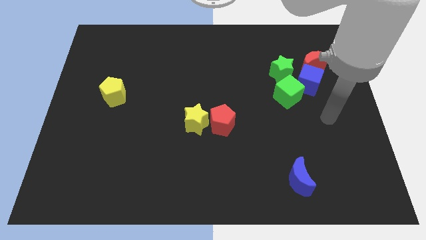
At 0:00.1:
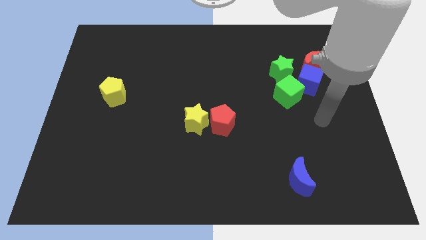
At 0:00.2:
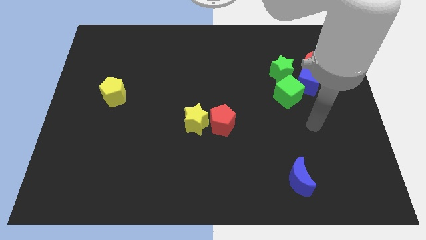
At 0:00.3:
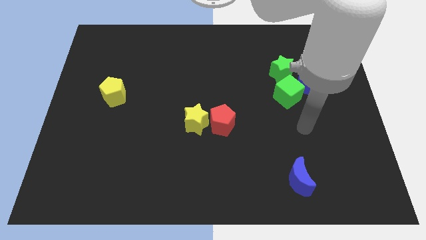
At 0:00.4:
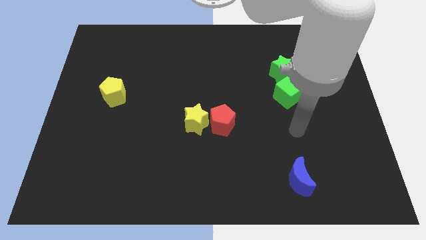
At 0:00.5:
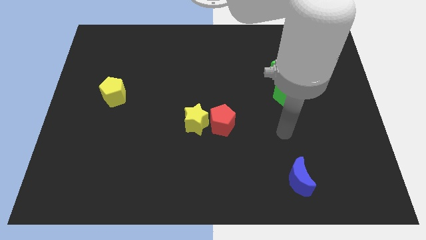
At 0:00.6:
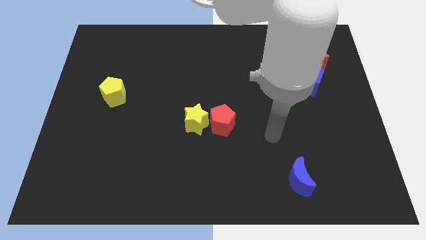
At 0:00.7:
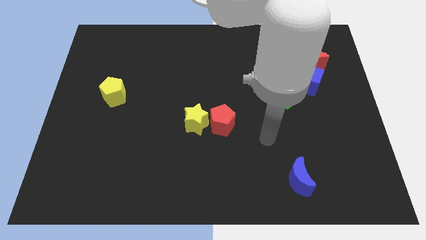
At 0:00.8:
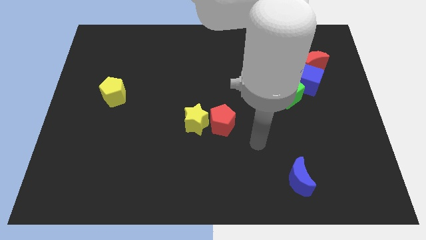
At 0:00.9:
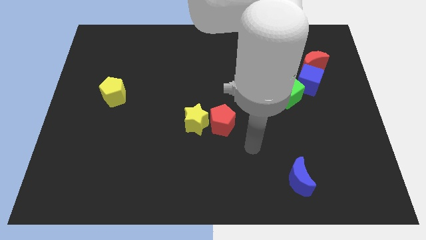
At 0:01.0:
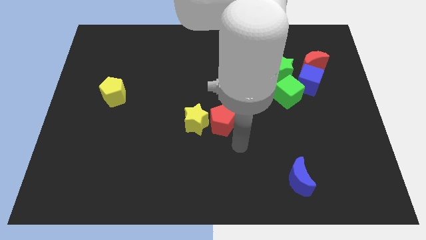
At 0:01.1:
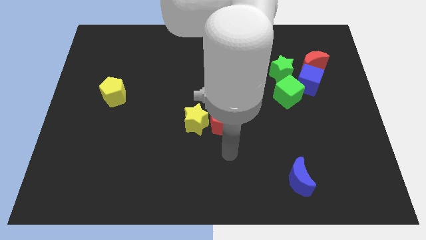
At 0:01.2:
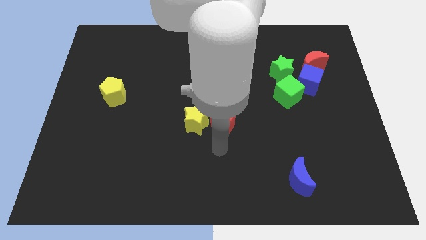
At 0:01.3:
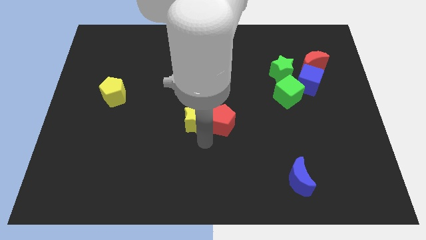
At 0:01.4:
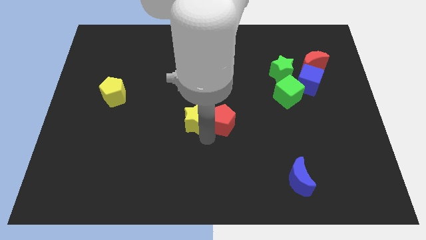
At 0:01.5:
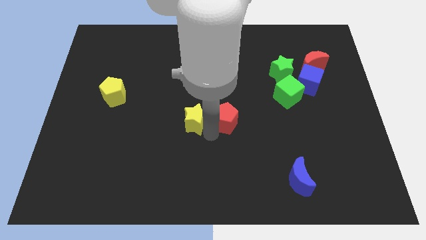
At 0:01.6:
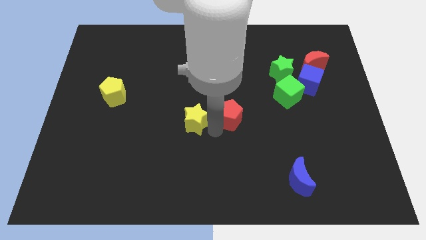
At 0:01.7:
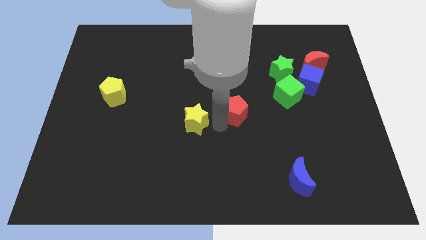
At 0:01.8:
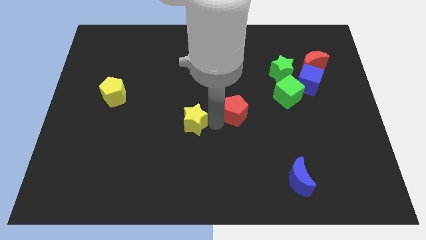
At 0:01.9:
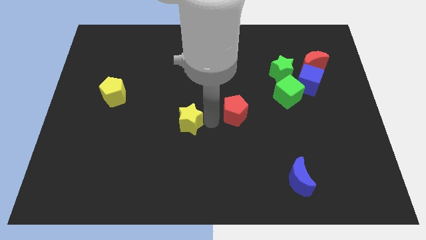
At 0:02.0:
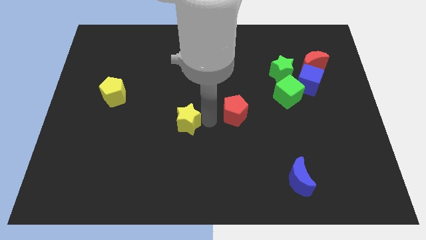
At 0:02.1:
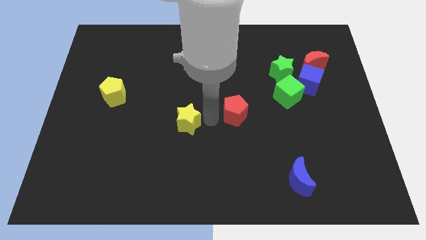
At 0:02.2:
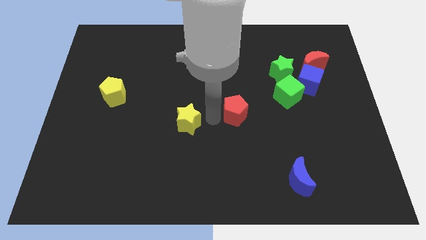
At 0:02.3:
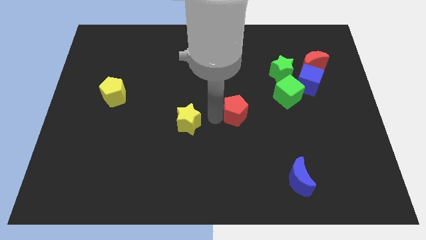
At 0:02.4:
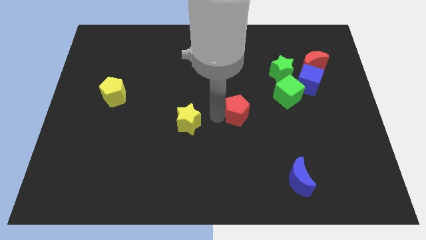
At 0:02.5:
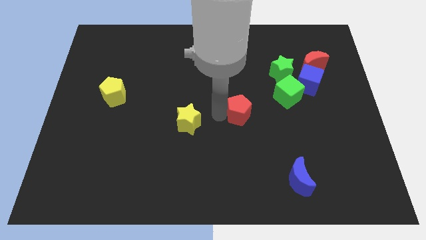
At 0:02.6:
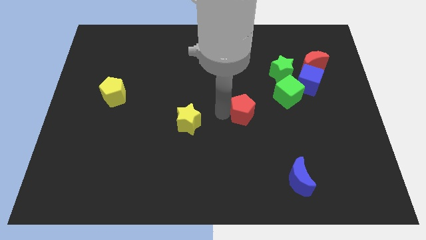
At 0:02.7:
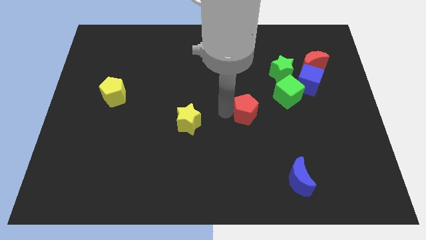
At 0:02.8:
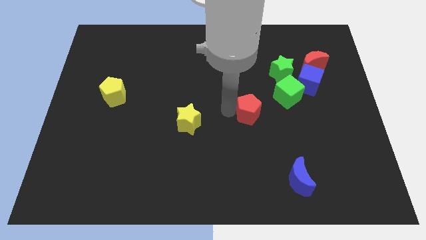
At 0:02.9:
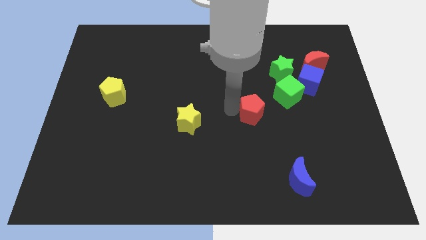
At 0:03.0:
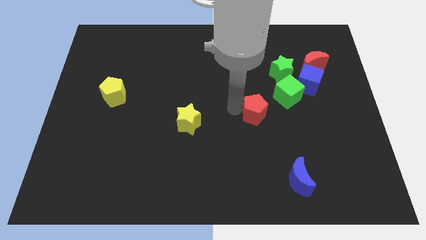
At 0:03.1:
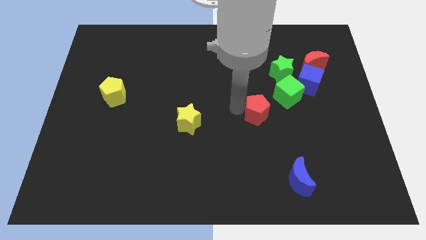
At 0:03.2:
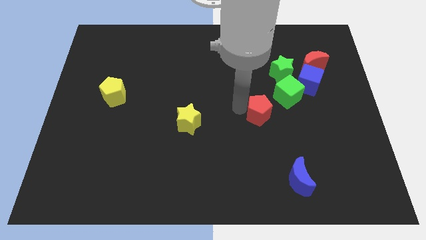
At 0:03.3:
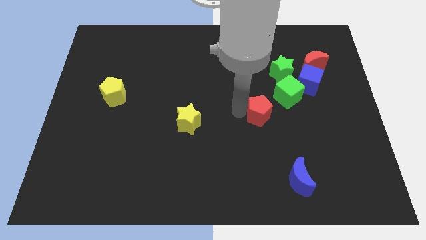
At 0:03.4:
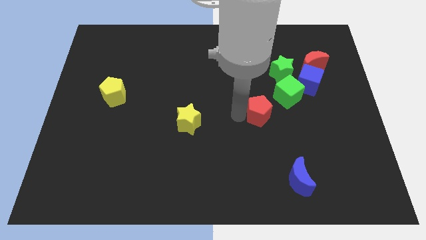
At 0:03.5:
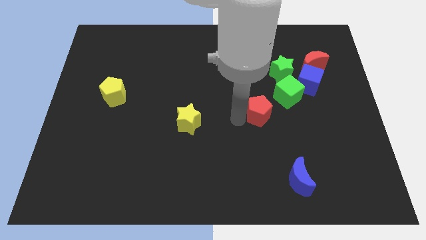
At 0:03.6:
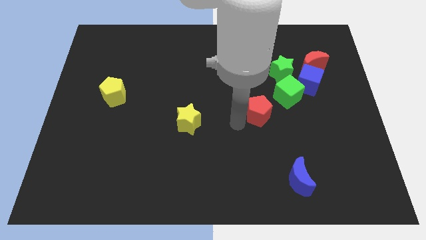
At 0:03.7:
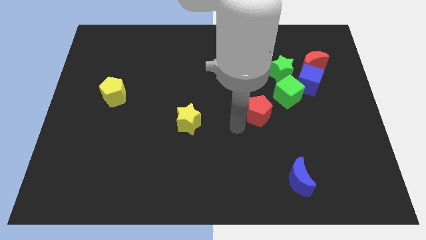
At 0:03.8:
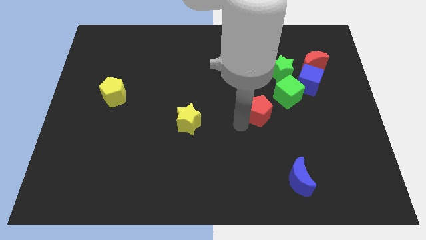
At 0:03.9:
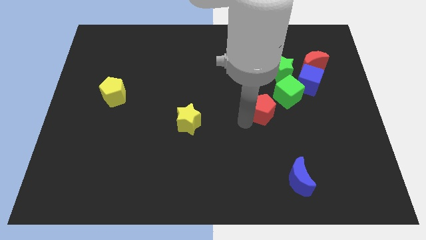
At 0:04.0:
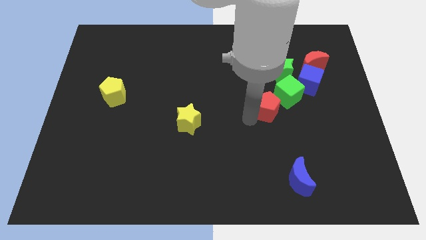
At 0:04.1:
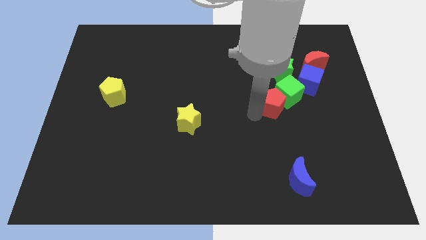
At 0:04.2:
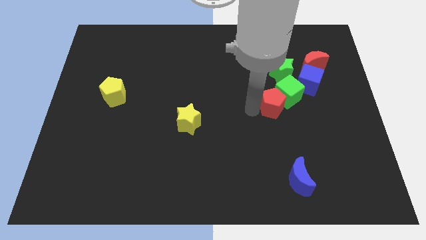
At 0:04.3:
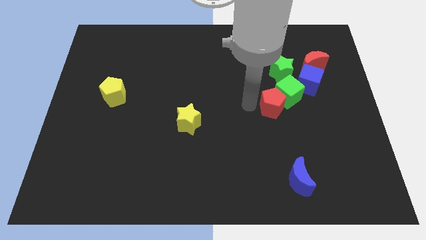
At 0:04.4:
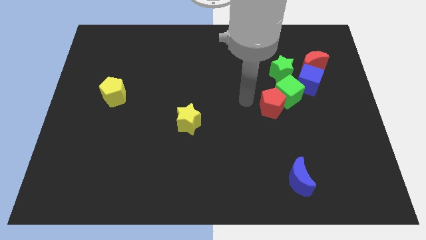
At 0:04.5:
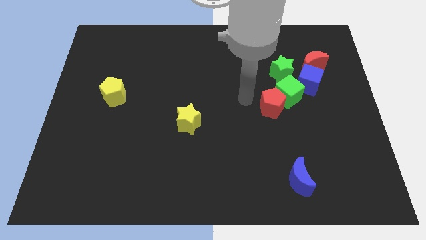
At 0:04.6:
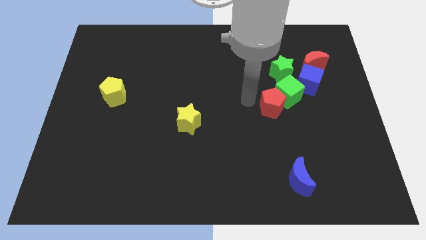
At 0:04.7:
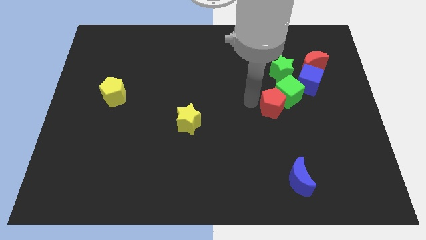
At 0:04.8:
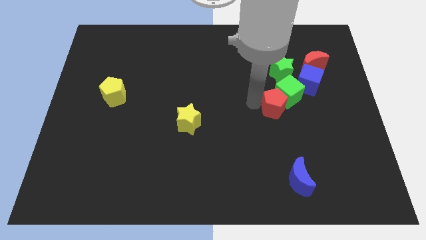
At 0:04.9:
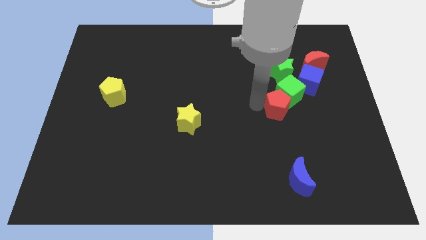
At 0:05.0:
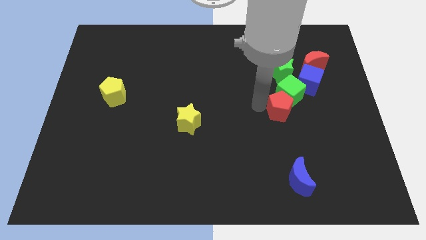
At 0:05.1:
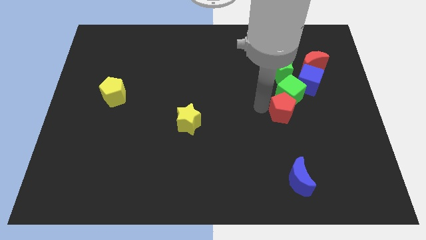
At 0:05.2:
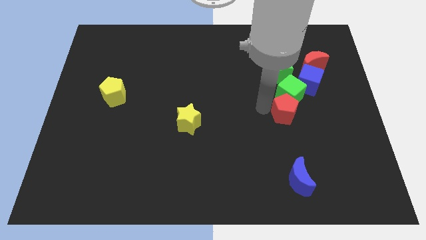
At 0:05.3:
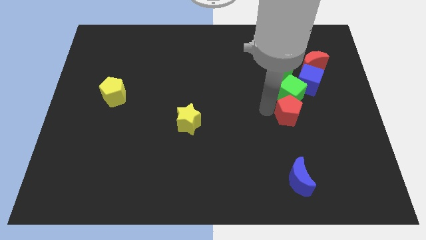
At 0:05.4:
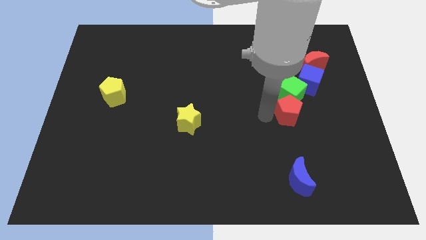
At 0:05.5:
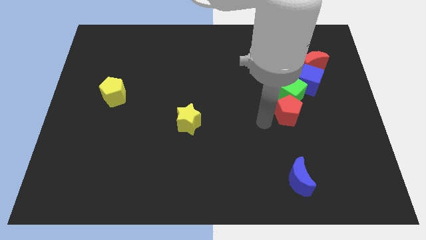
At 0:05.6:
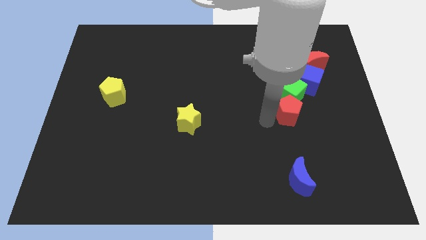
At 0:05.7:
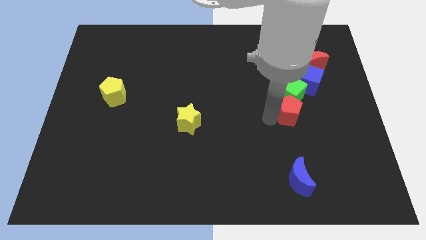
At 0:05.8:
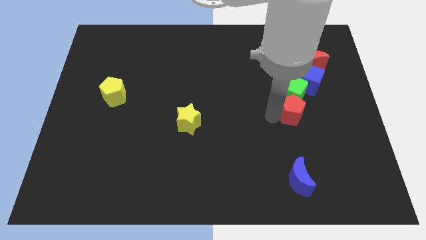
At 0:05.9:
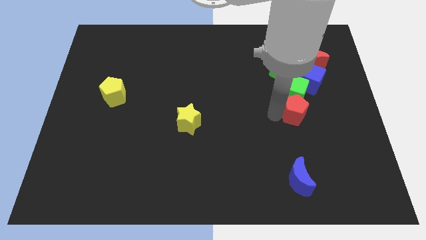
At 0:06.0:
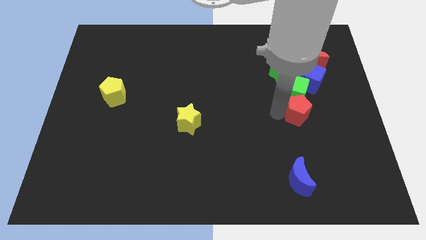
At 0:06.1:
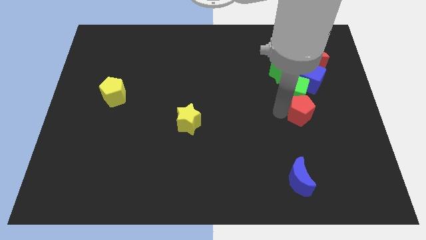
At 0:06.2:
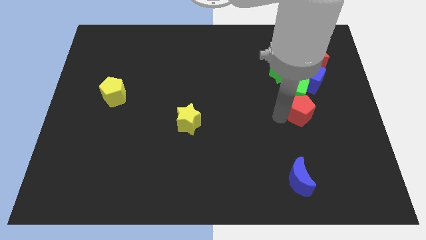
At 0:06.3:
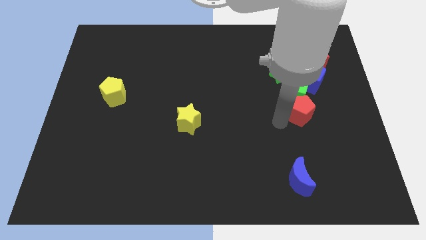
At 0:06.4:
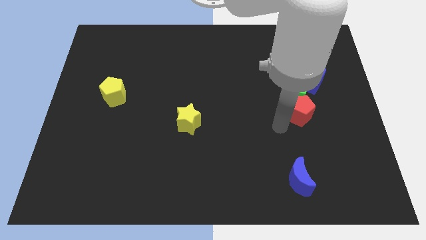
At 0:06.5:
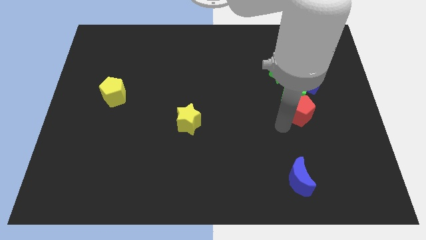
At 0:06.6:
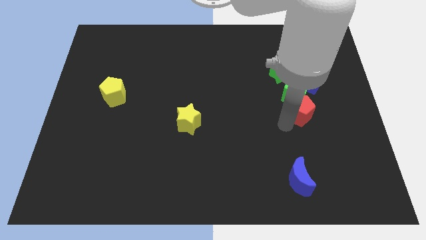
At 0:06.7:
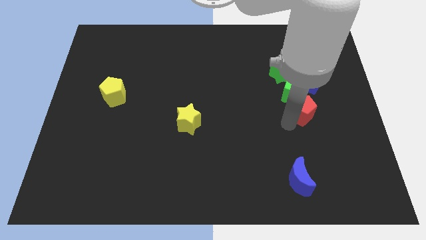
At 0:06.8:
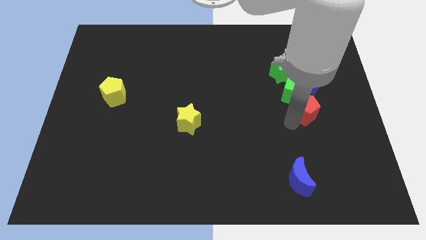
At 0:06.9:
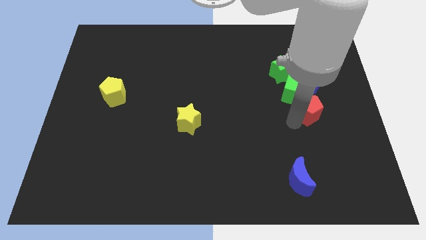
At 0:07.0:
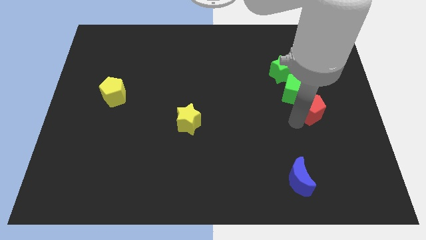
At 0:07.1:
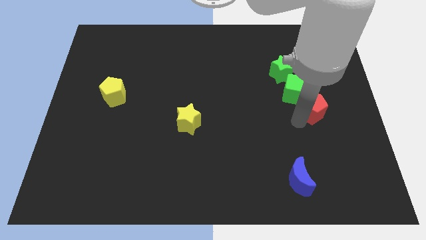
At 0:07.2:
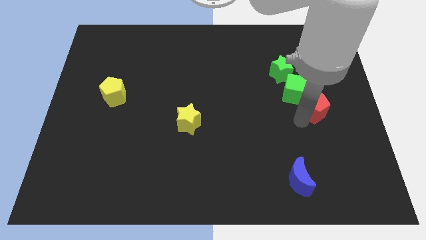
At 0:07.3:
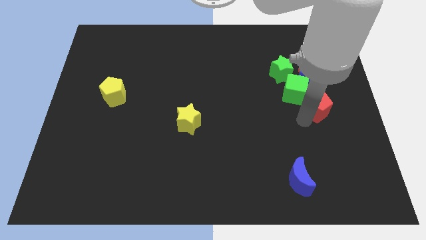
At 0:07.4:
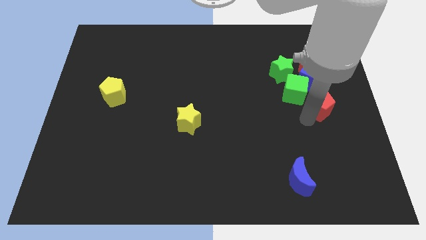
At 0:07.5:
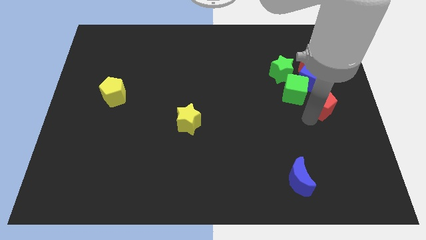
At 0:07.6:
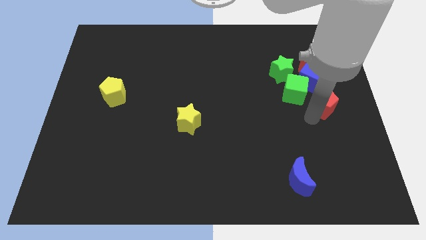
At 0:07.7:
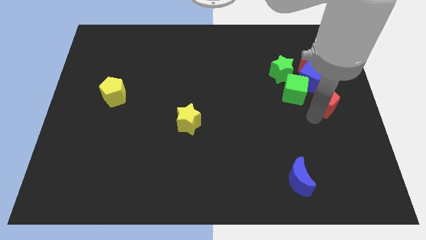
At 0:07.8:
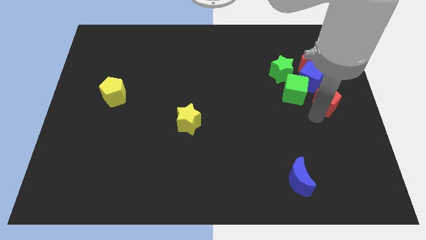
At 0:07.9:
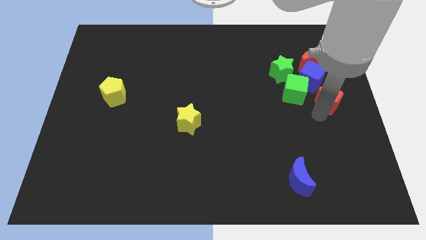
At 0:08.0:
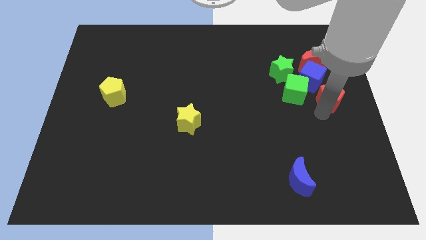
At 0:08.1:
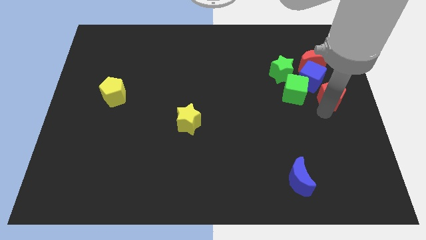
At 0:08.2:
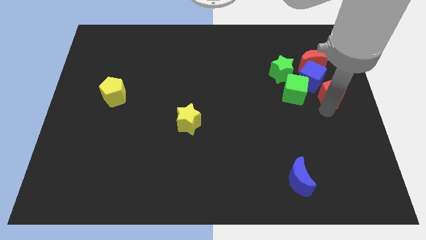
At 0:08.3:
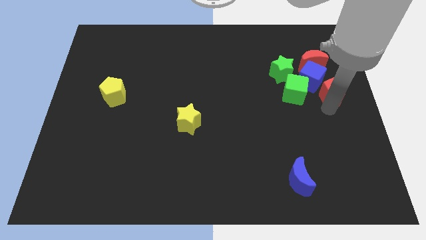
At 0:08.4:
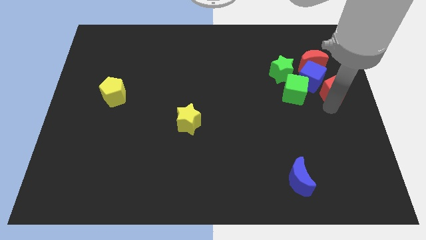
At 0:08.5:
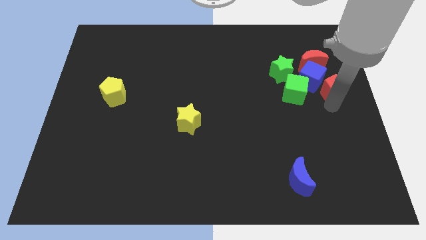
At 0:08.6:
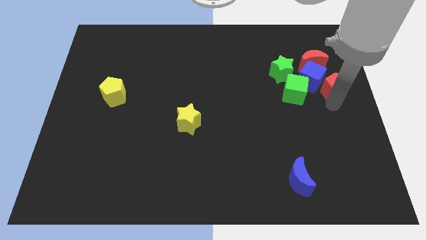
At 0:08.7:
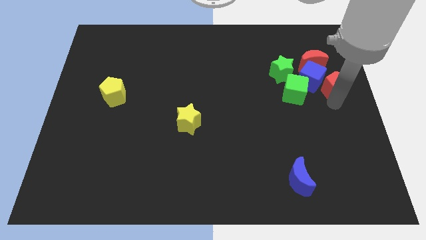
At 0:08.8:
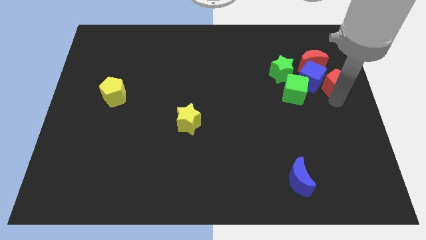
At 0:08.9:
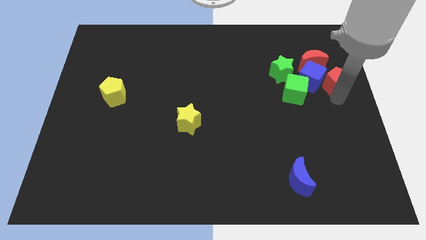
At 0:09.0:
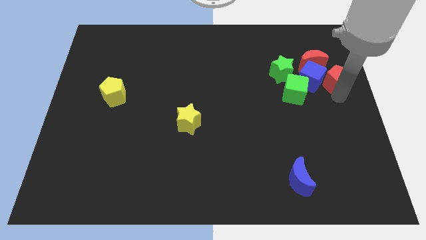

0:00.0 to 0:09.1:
move the red pentagon to the top right of the blue cube
